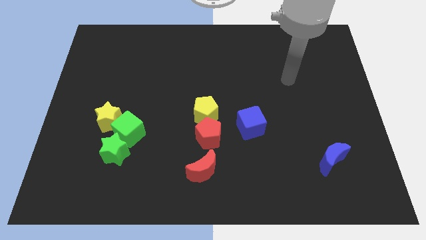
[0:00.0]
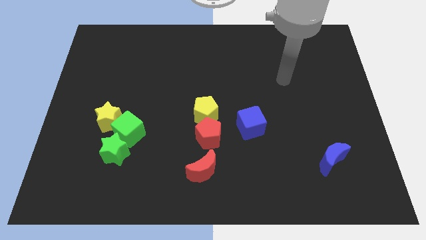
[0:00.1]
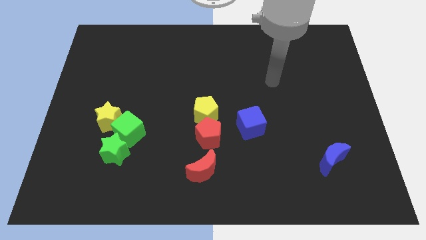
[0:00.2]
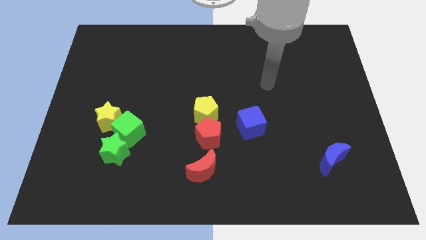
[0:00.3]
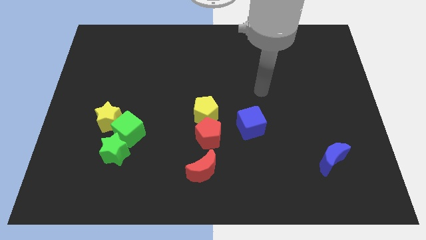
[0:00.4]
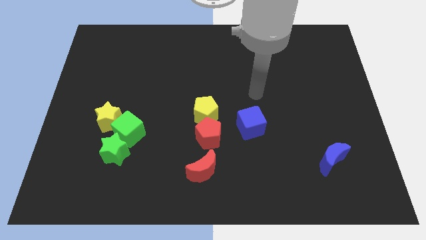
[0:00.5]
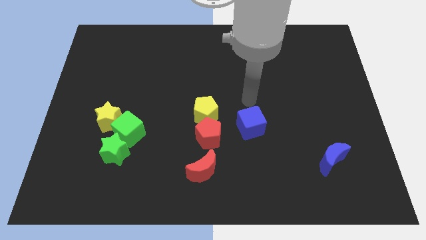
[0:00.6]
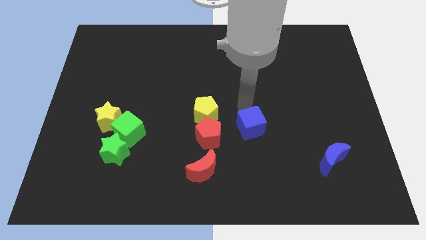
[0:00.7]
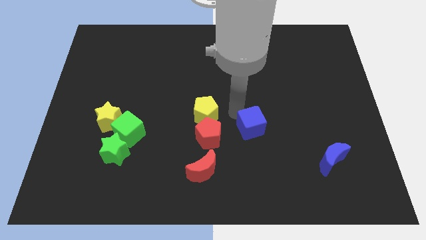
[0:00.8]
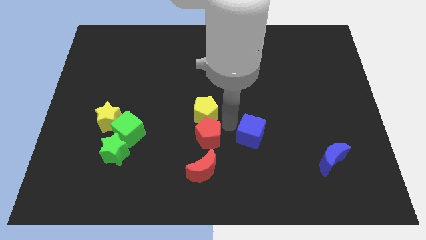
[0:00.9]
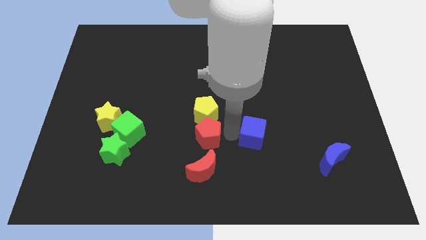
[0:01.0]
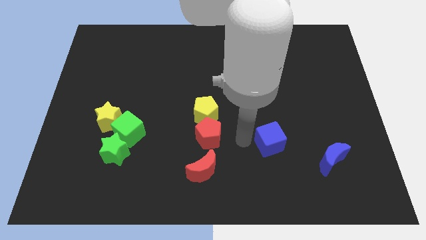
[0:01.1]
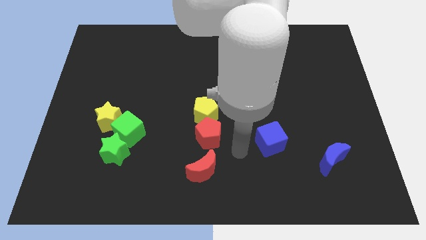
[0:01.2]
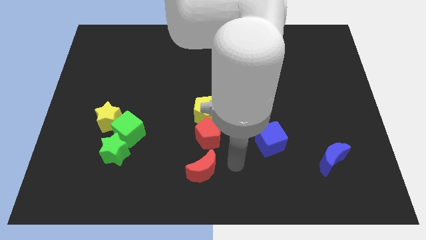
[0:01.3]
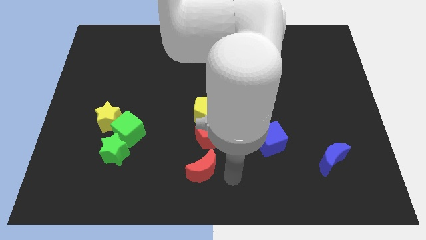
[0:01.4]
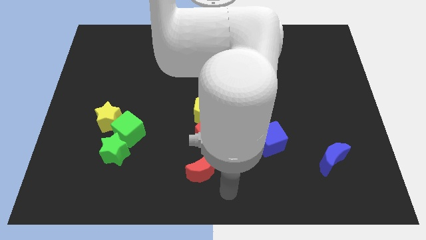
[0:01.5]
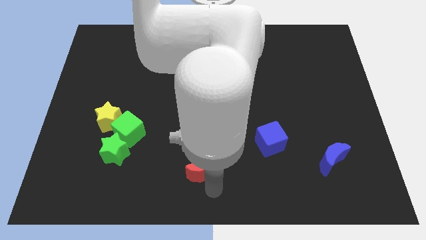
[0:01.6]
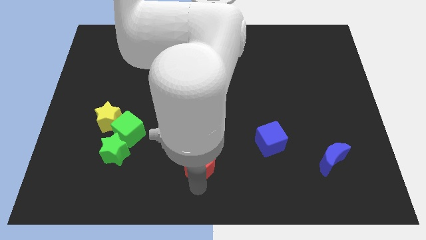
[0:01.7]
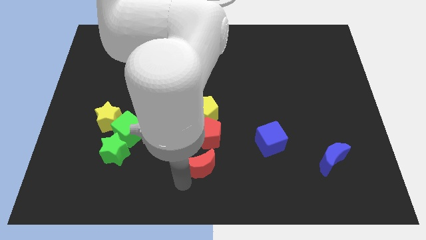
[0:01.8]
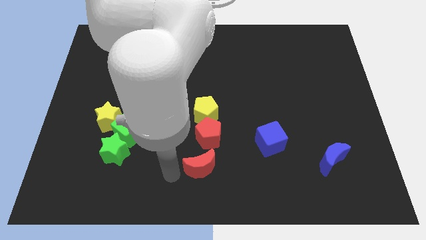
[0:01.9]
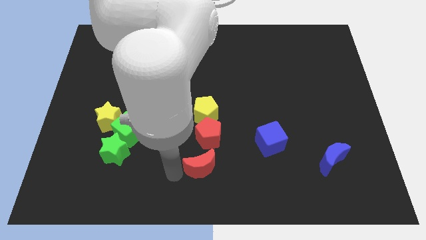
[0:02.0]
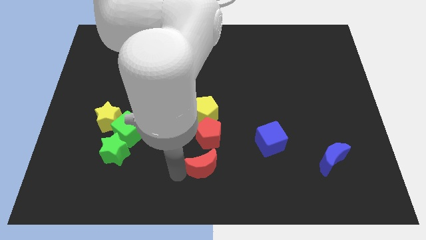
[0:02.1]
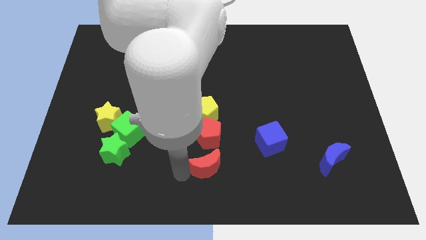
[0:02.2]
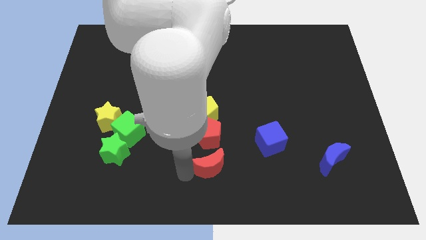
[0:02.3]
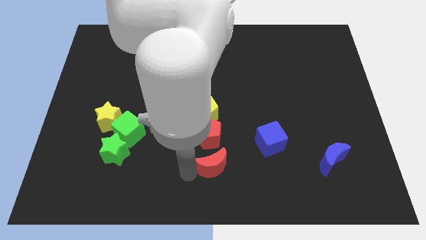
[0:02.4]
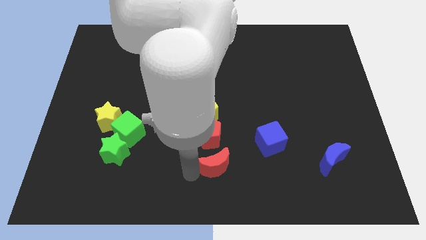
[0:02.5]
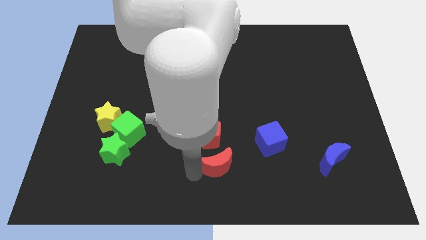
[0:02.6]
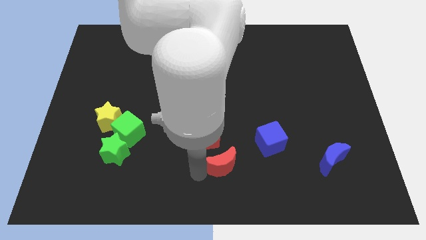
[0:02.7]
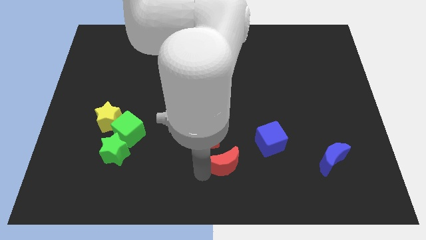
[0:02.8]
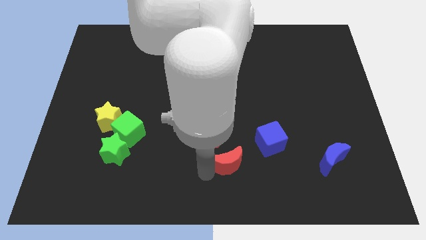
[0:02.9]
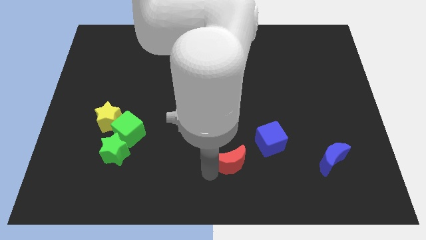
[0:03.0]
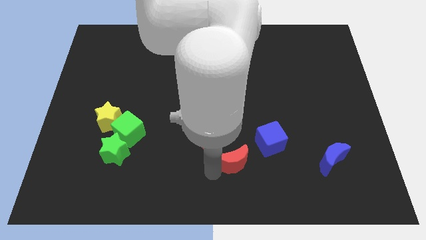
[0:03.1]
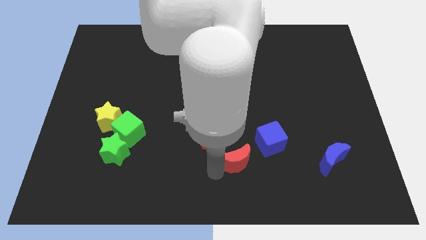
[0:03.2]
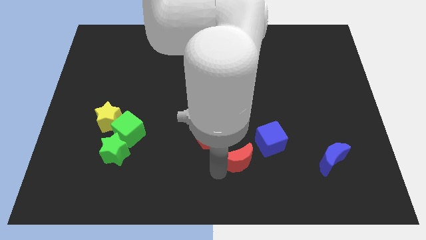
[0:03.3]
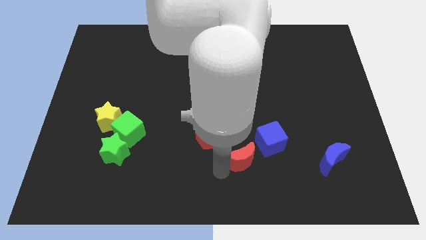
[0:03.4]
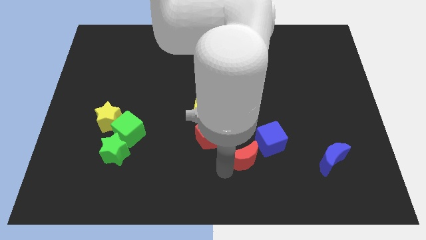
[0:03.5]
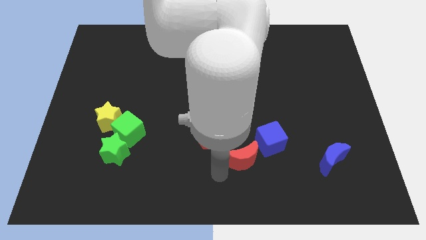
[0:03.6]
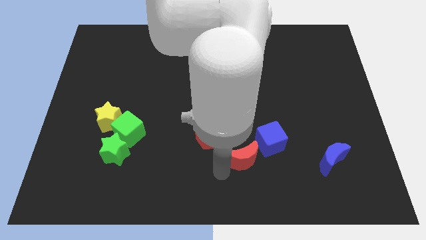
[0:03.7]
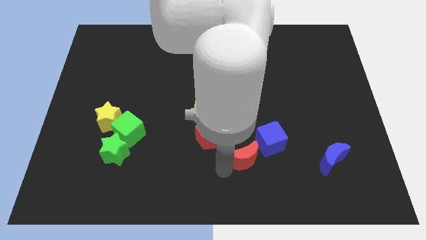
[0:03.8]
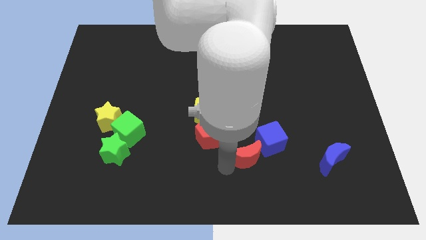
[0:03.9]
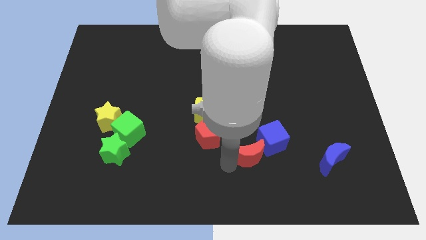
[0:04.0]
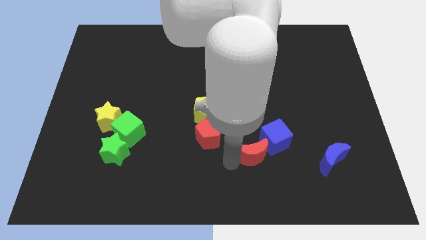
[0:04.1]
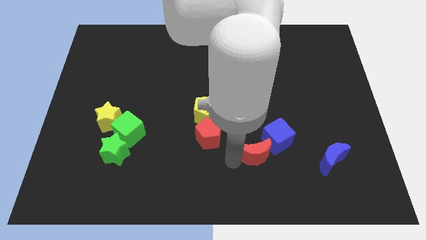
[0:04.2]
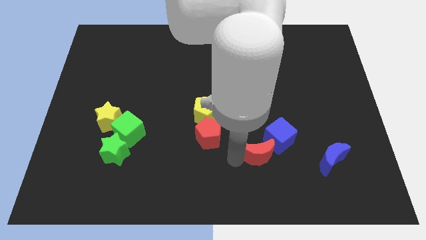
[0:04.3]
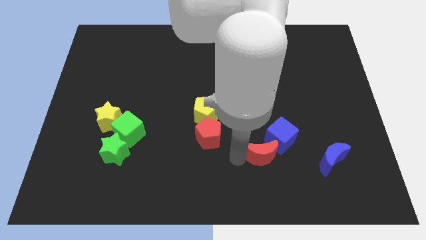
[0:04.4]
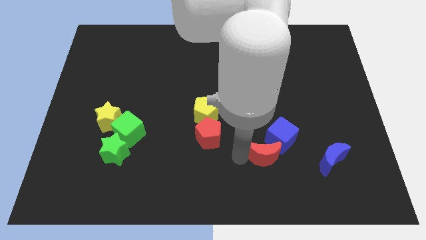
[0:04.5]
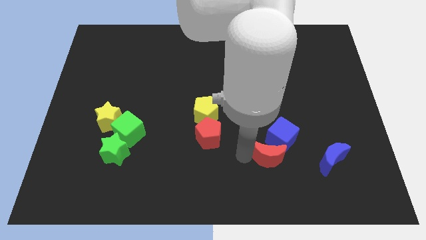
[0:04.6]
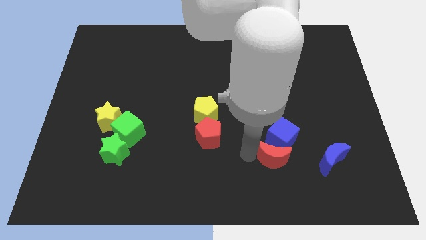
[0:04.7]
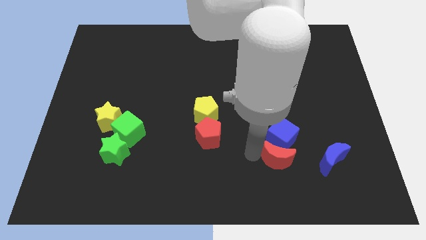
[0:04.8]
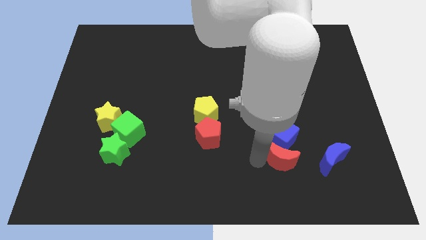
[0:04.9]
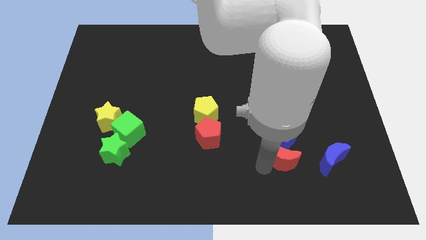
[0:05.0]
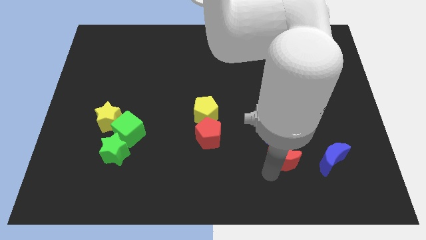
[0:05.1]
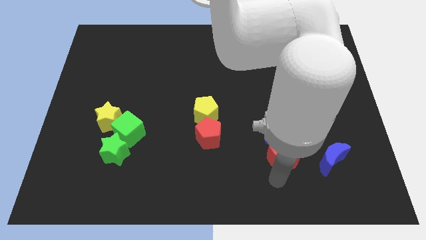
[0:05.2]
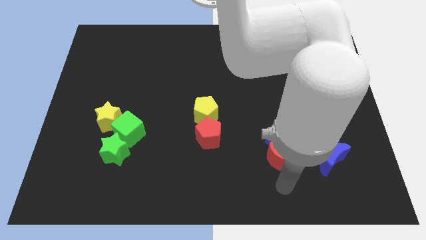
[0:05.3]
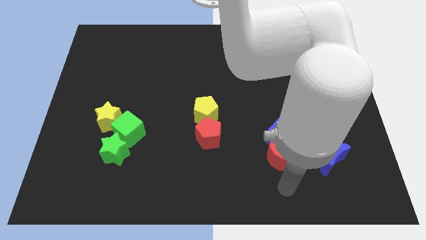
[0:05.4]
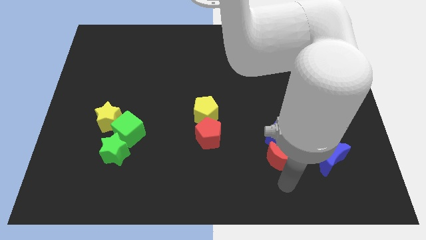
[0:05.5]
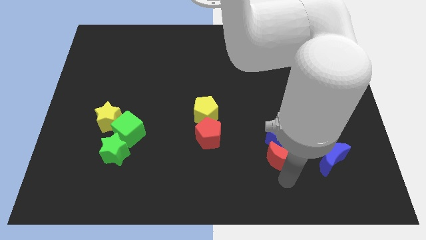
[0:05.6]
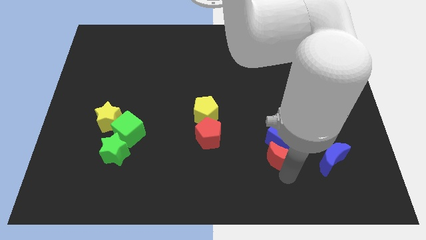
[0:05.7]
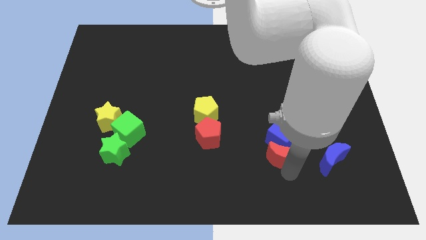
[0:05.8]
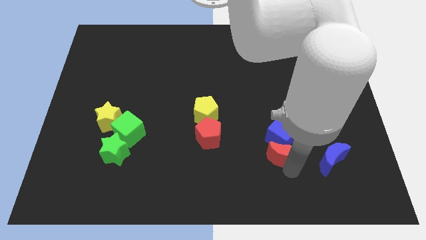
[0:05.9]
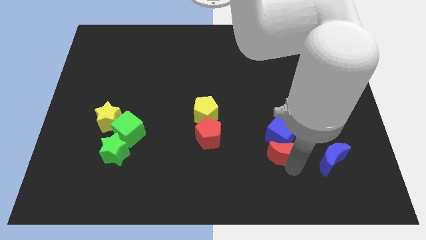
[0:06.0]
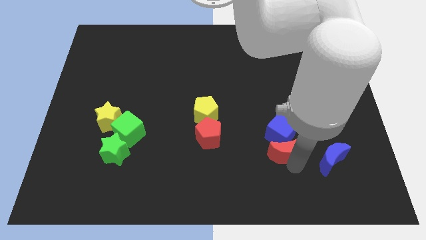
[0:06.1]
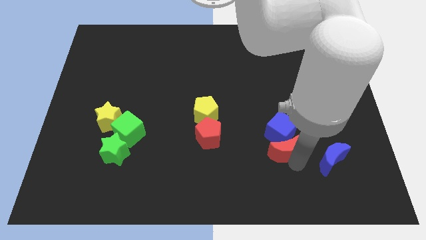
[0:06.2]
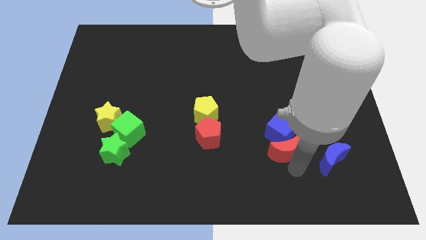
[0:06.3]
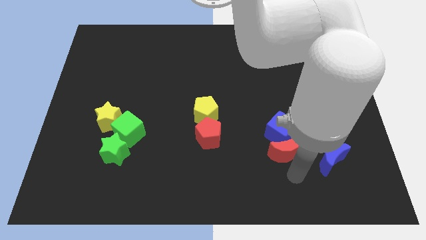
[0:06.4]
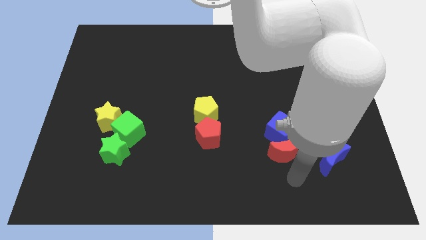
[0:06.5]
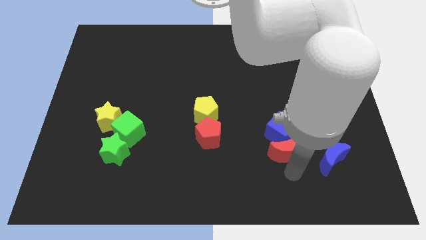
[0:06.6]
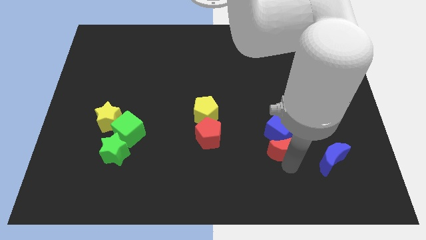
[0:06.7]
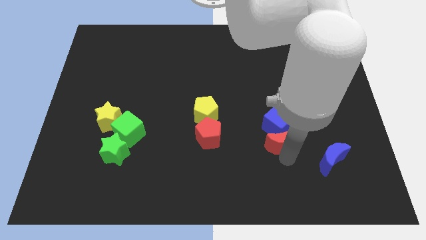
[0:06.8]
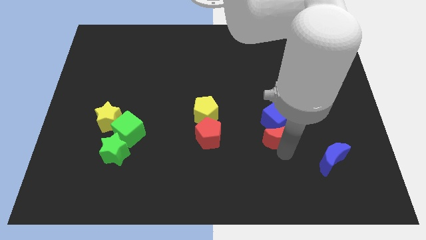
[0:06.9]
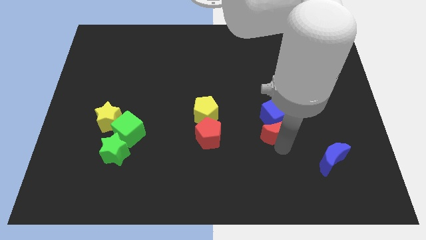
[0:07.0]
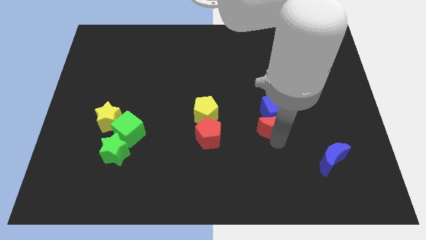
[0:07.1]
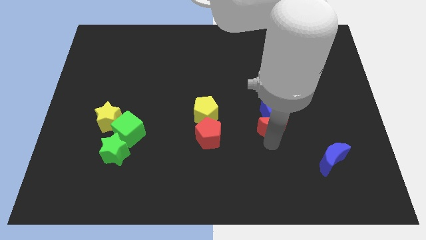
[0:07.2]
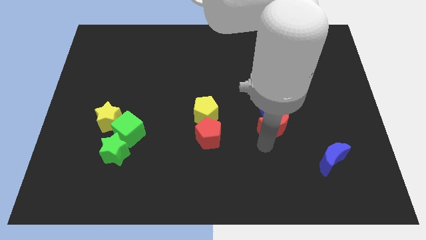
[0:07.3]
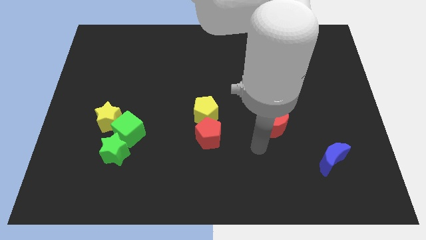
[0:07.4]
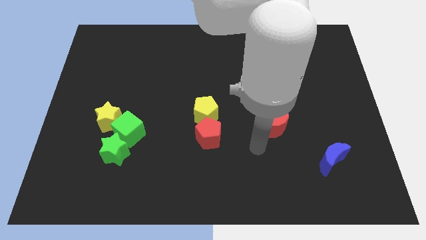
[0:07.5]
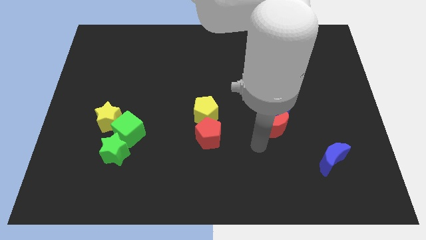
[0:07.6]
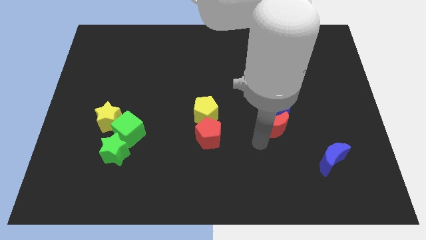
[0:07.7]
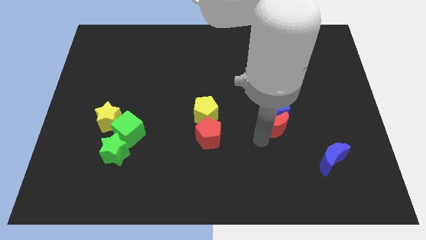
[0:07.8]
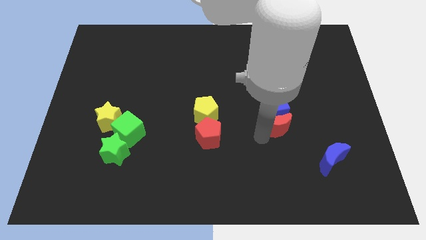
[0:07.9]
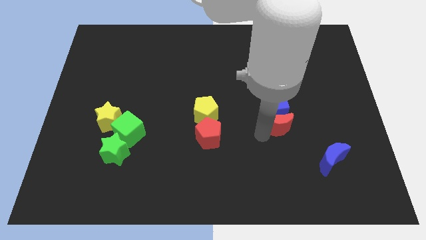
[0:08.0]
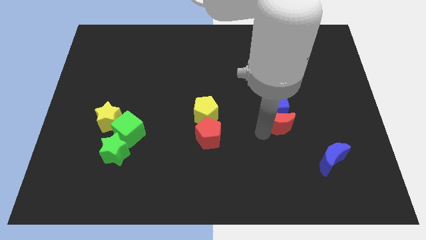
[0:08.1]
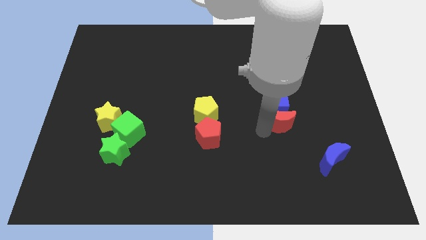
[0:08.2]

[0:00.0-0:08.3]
slide the red moon upwards and then right

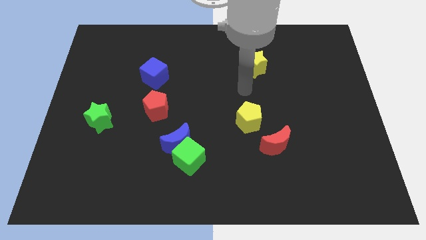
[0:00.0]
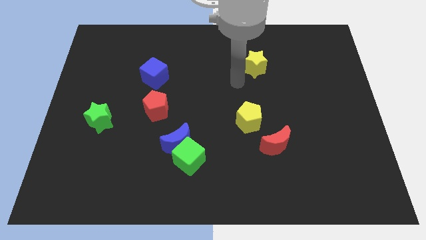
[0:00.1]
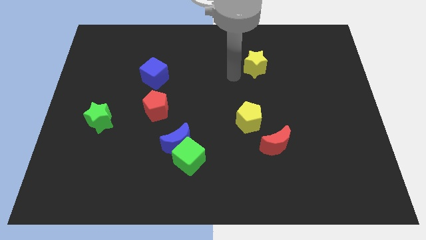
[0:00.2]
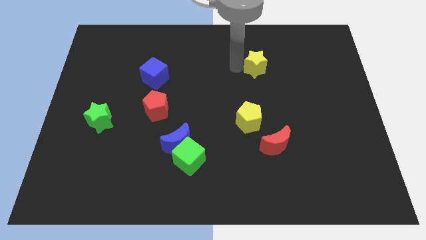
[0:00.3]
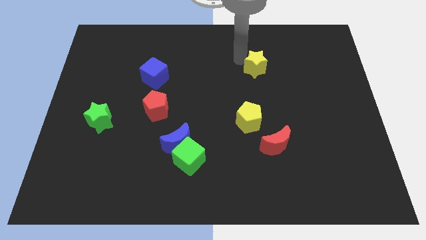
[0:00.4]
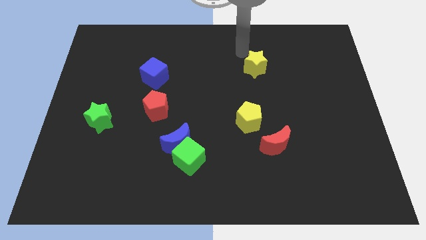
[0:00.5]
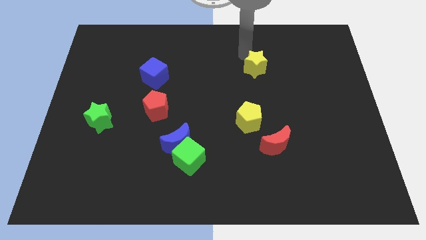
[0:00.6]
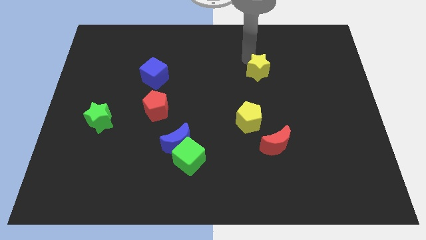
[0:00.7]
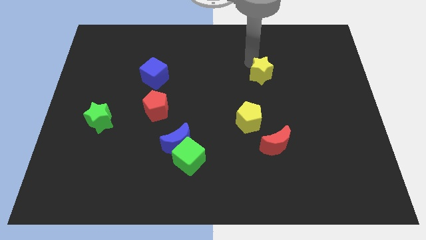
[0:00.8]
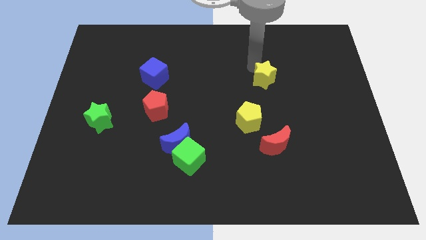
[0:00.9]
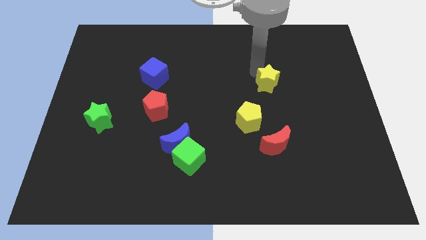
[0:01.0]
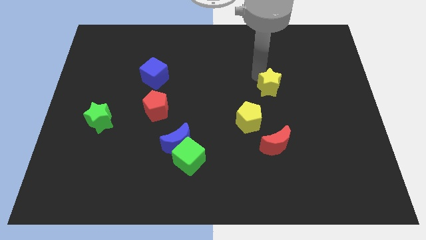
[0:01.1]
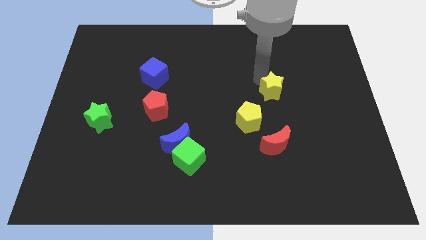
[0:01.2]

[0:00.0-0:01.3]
slightly move the yellow star diagonally down and right
